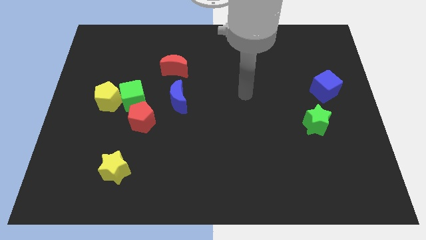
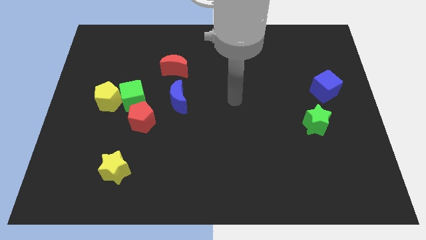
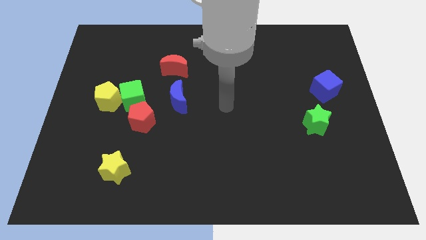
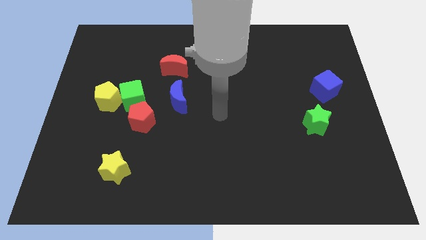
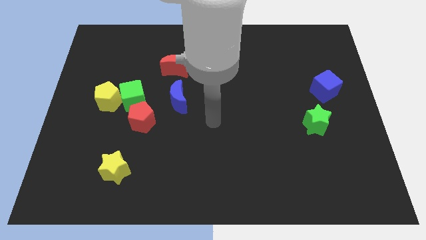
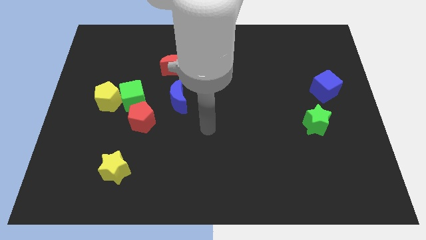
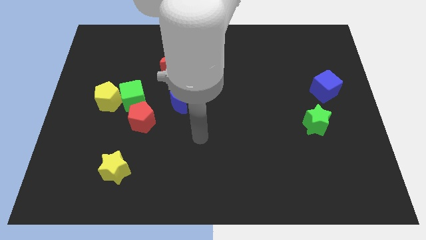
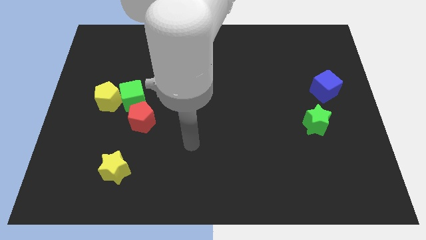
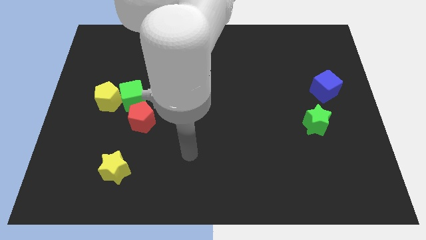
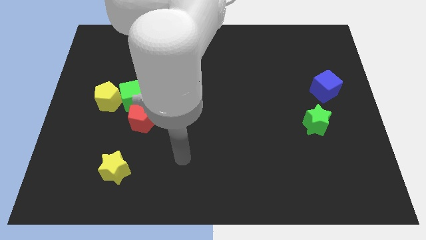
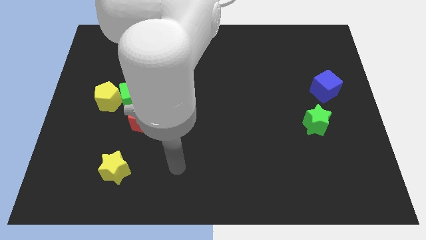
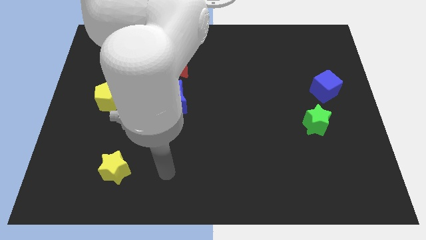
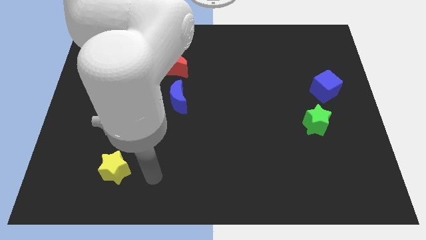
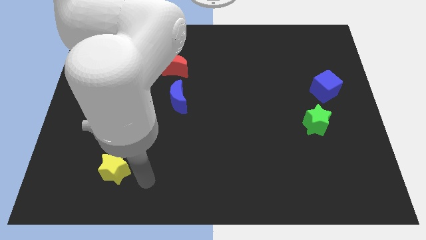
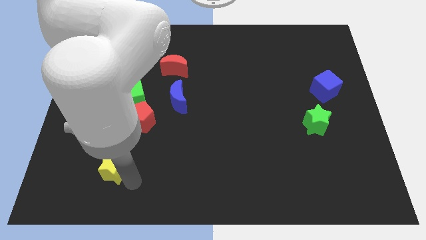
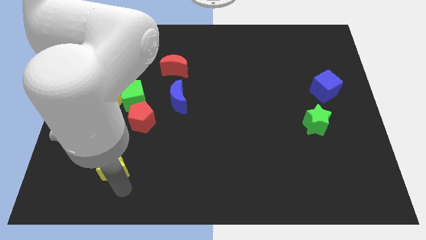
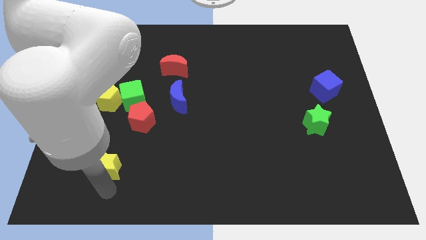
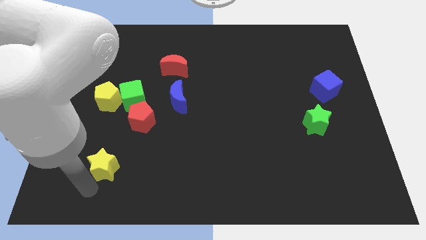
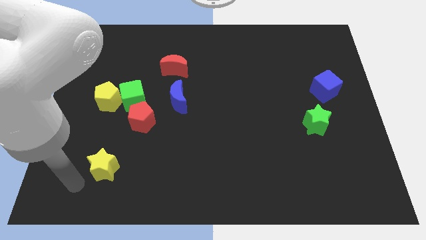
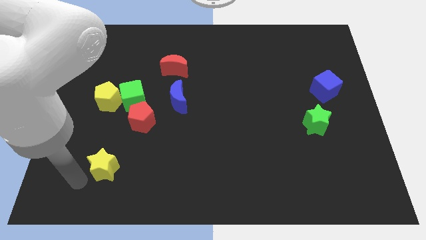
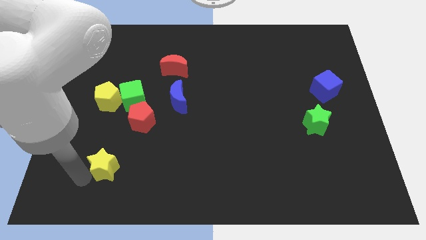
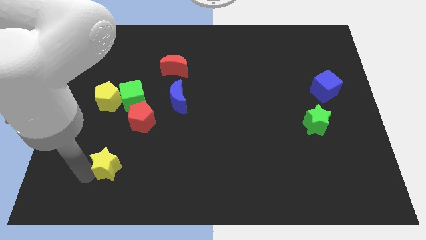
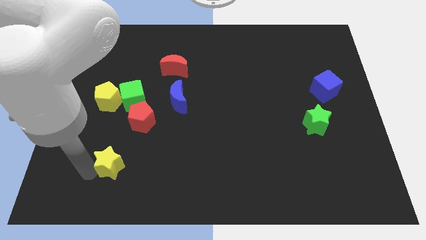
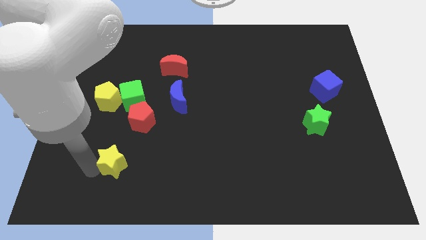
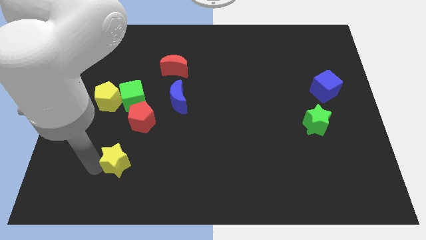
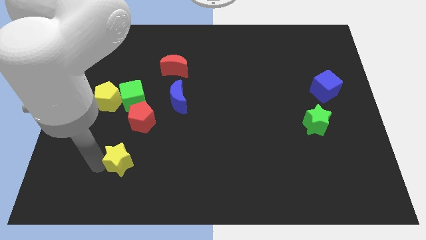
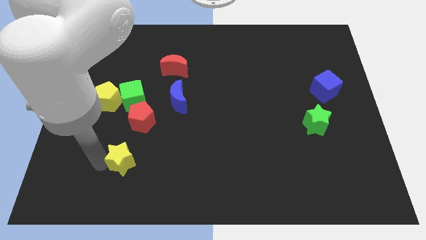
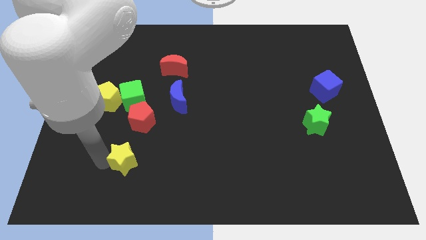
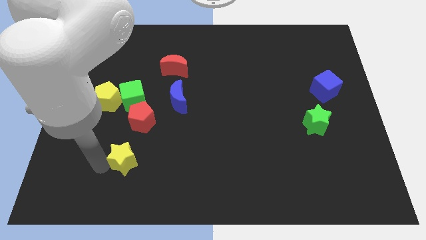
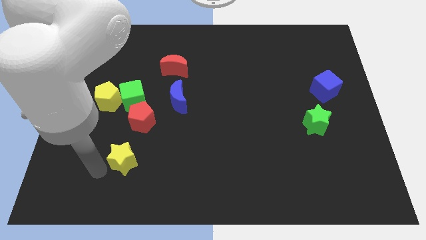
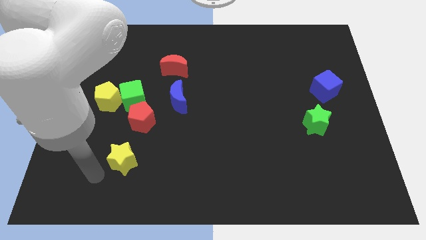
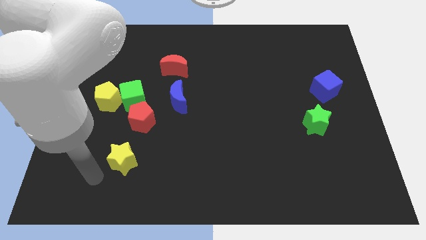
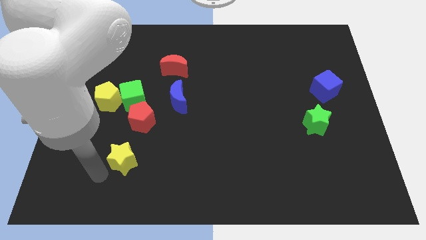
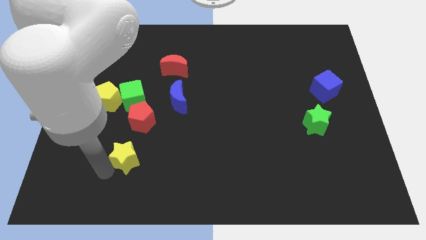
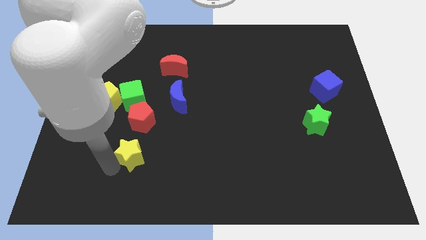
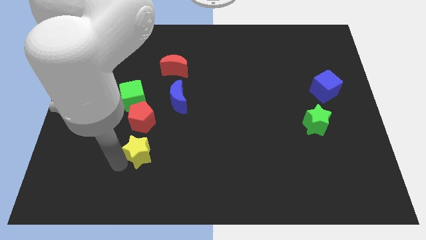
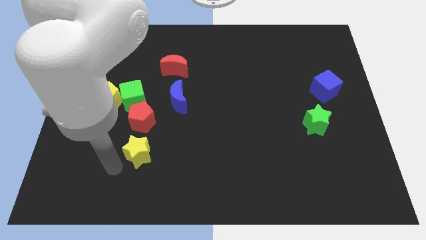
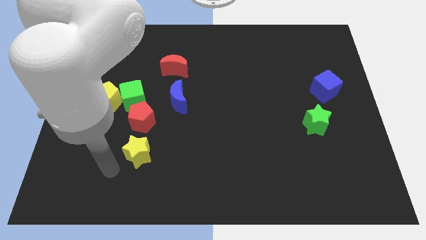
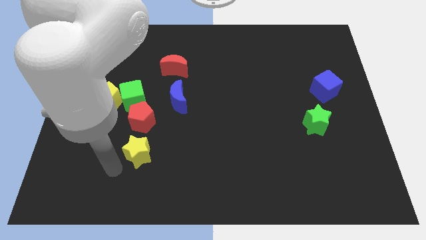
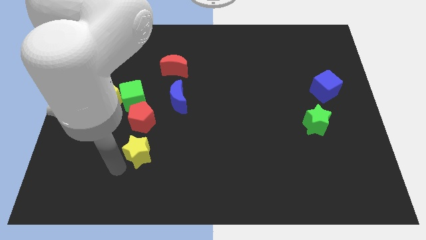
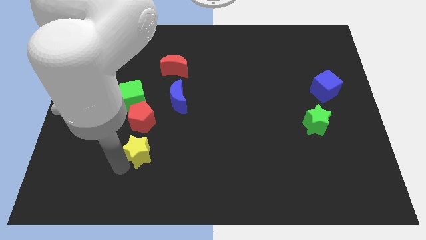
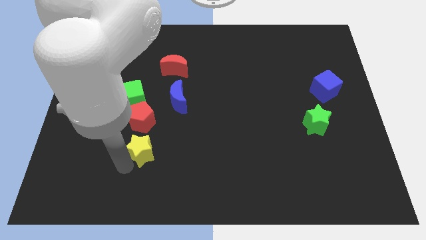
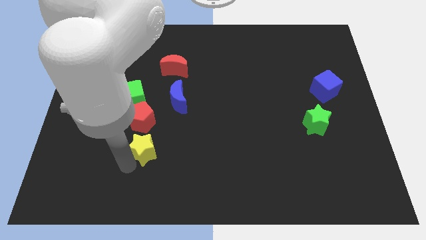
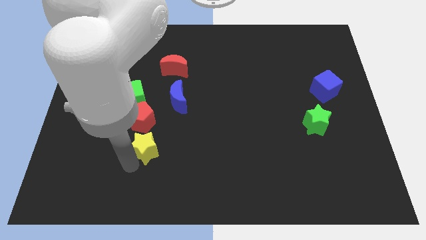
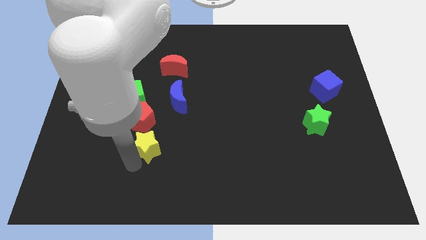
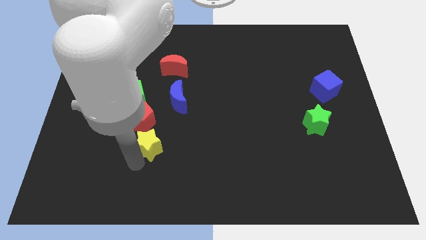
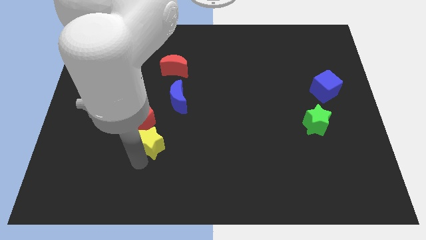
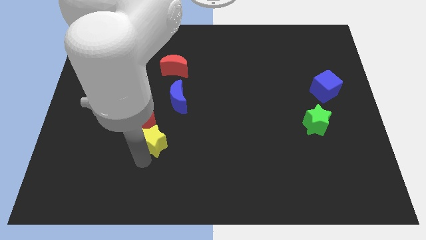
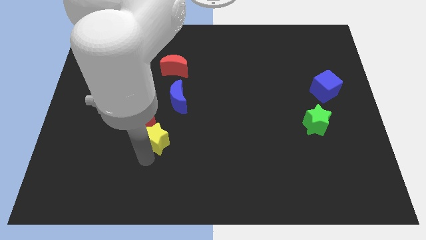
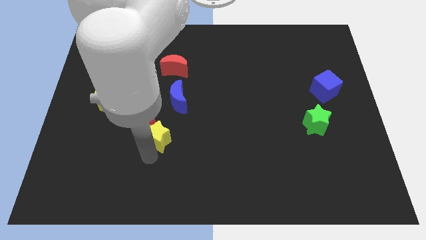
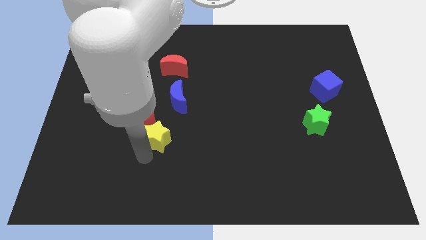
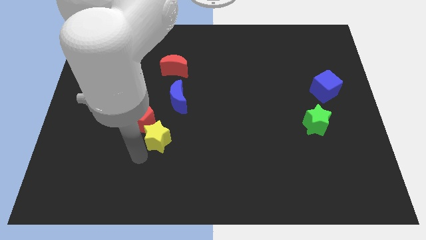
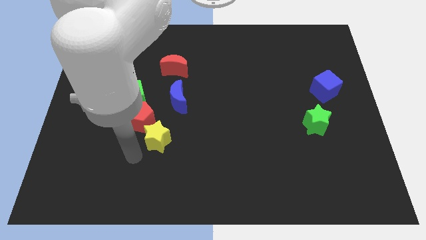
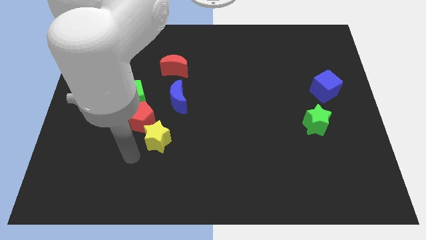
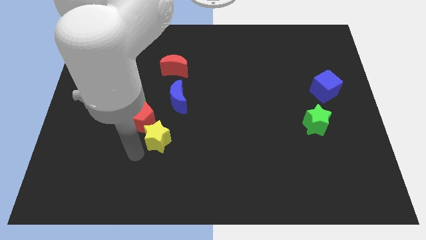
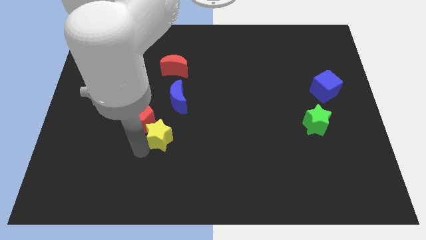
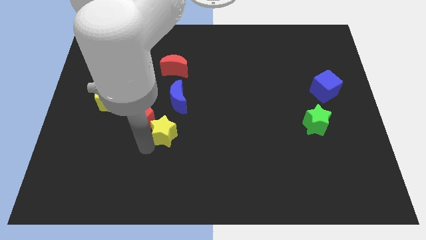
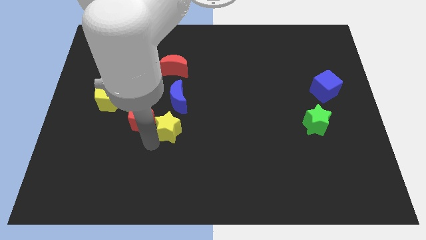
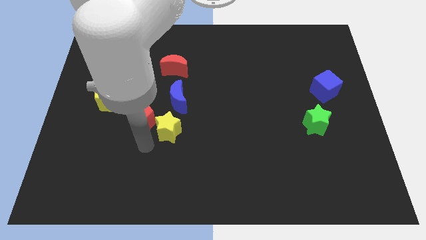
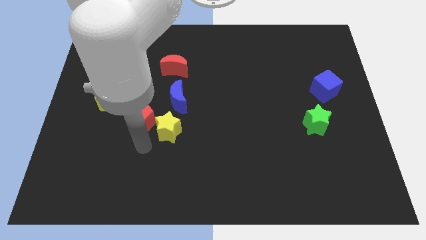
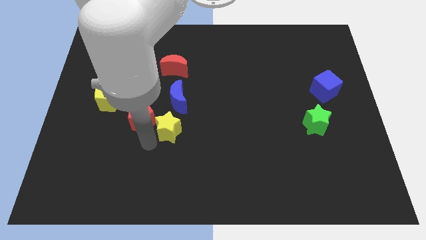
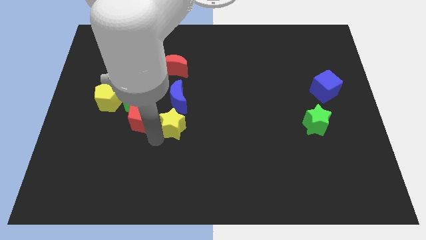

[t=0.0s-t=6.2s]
move the yellow star to the center of the board
